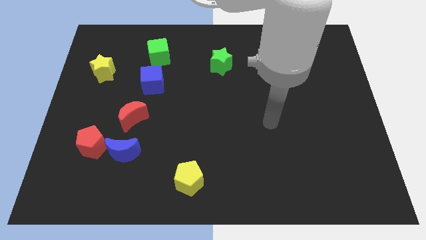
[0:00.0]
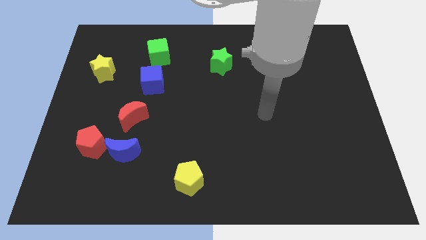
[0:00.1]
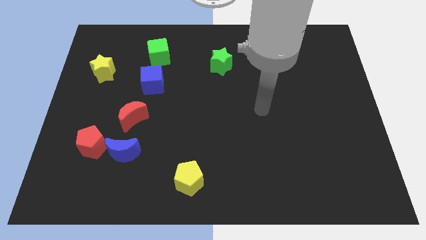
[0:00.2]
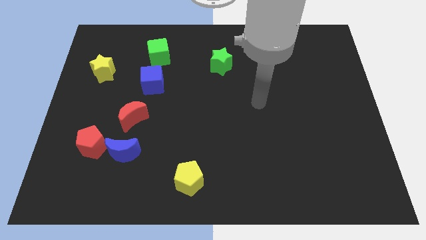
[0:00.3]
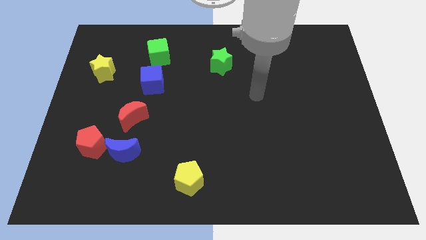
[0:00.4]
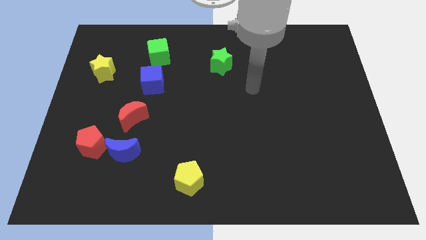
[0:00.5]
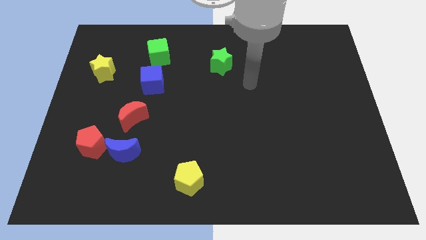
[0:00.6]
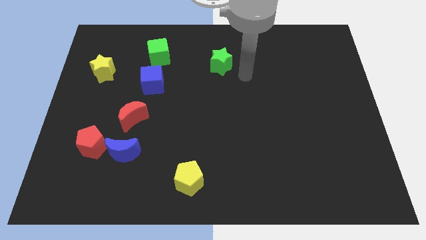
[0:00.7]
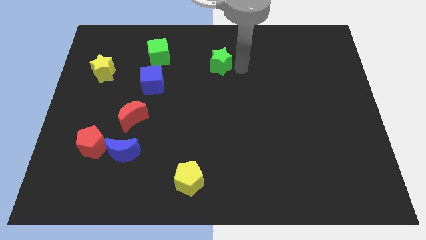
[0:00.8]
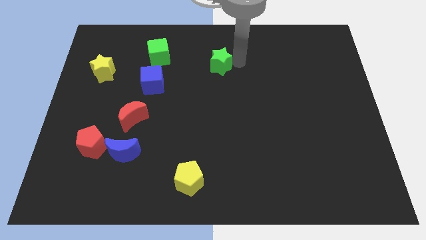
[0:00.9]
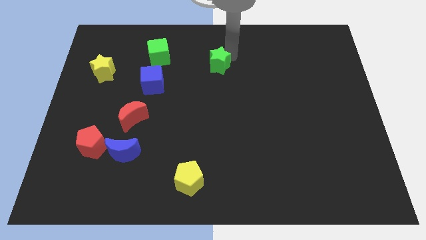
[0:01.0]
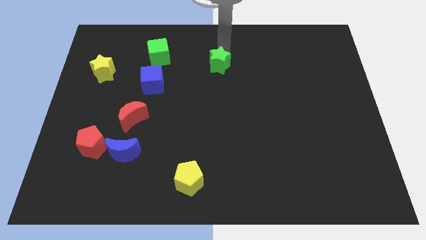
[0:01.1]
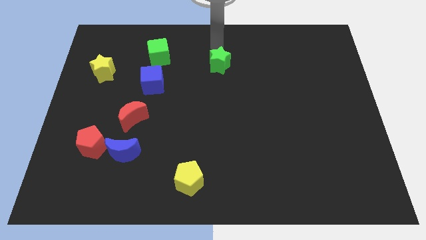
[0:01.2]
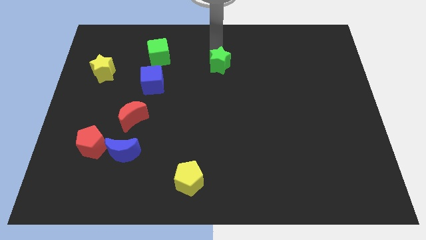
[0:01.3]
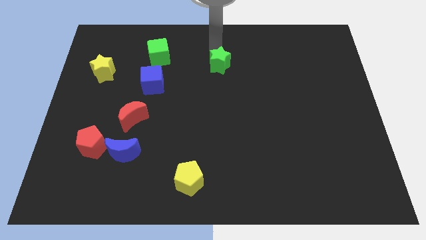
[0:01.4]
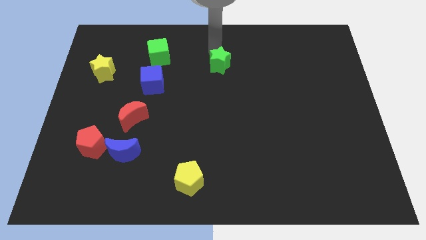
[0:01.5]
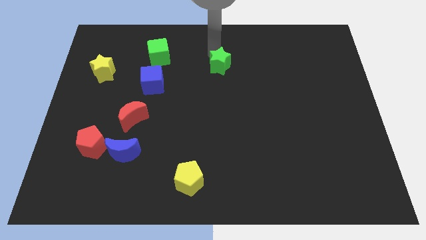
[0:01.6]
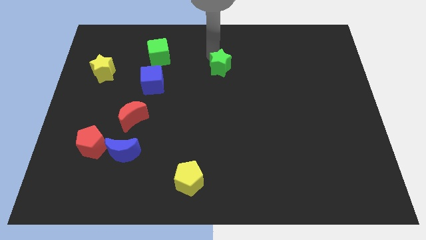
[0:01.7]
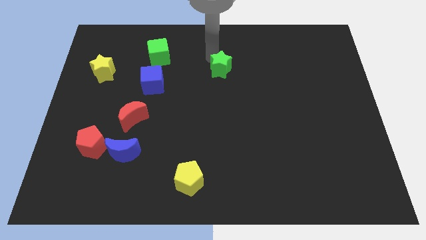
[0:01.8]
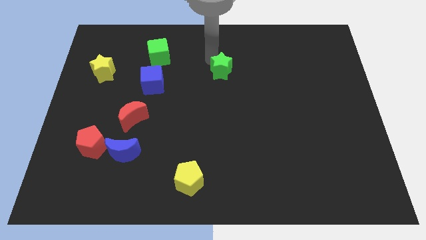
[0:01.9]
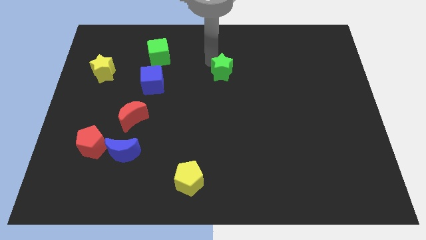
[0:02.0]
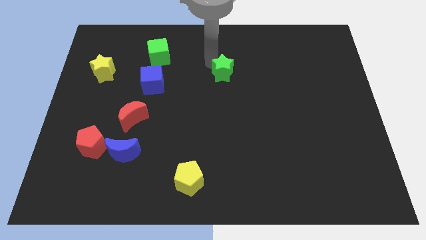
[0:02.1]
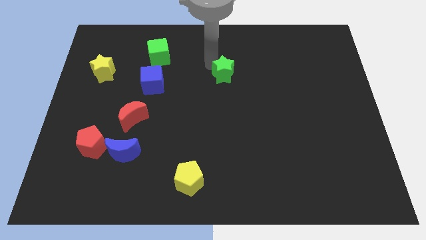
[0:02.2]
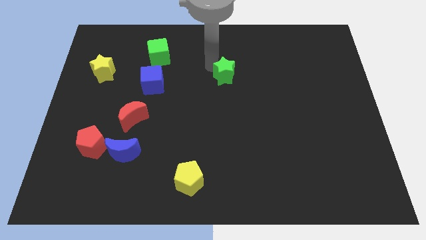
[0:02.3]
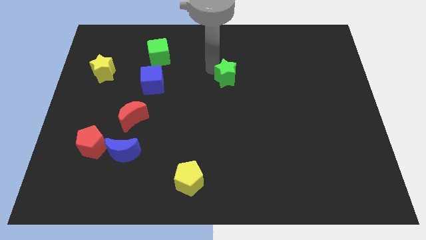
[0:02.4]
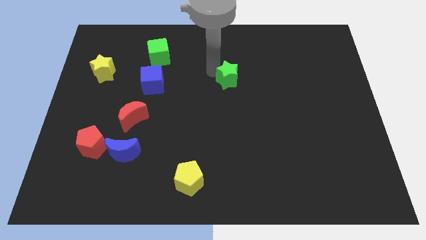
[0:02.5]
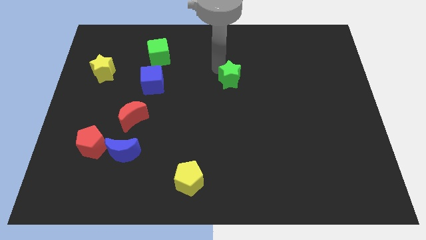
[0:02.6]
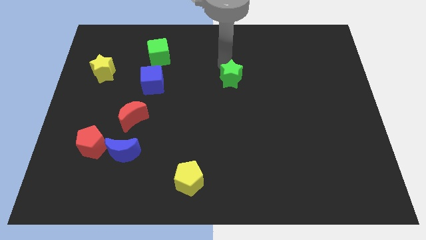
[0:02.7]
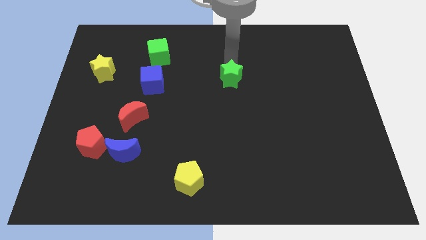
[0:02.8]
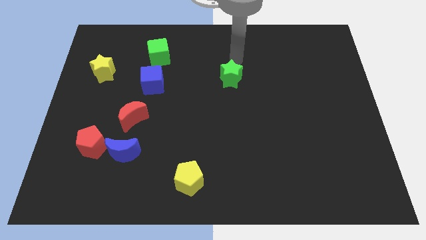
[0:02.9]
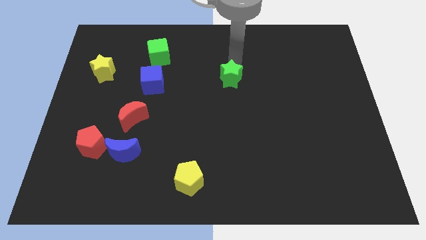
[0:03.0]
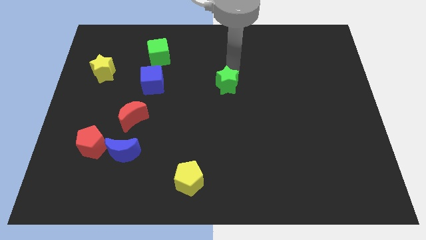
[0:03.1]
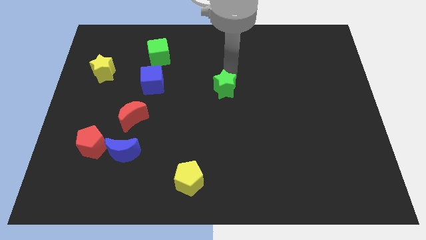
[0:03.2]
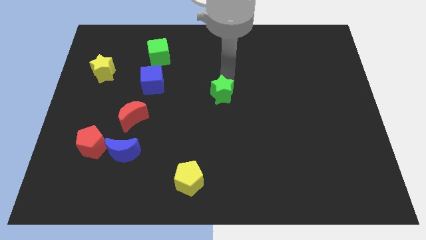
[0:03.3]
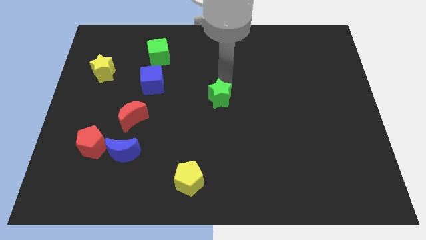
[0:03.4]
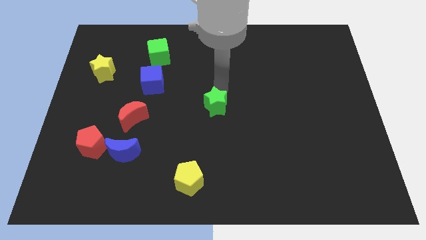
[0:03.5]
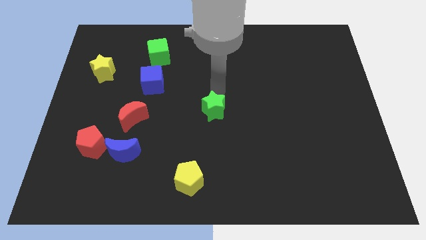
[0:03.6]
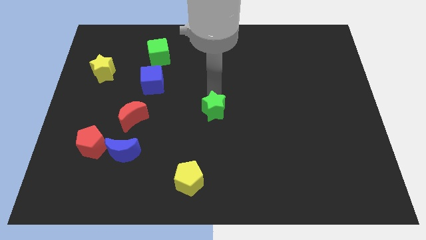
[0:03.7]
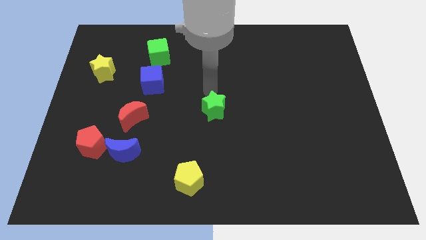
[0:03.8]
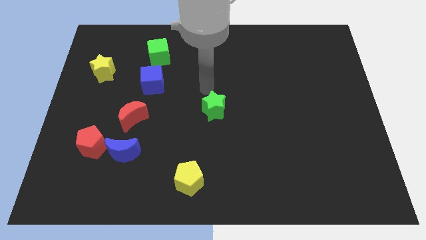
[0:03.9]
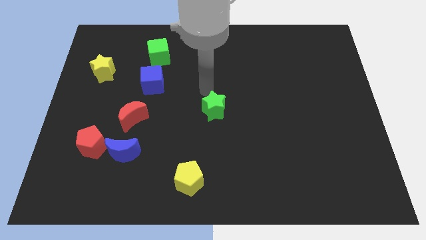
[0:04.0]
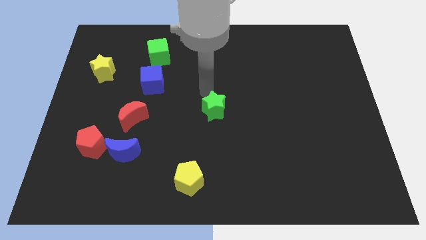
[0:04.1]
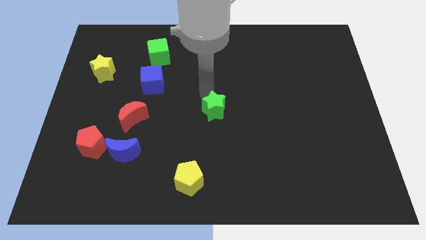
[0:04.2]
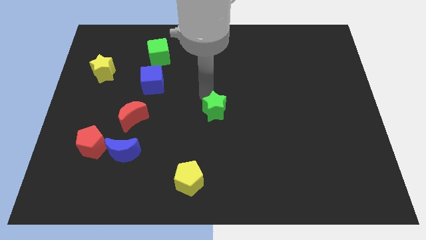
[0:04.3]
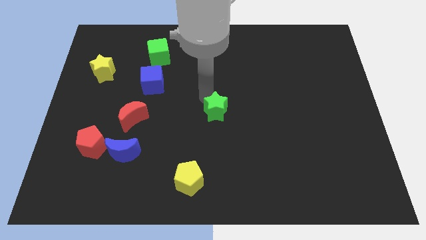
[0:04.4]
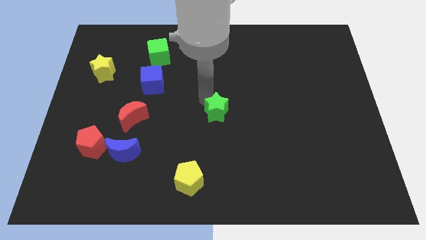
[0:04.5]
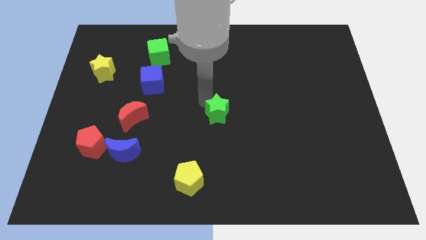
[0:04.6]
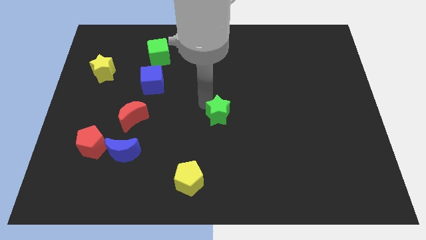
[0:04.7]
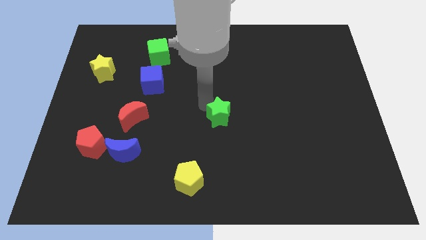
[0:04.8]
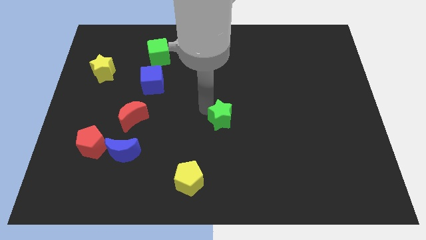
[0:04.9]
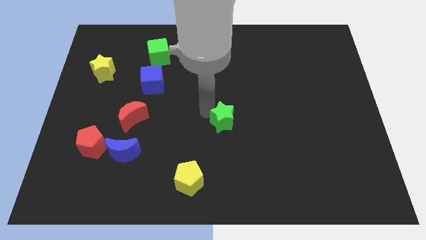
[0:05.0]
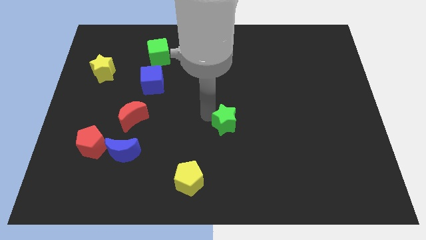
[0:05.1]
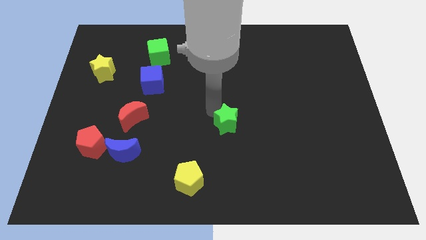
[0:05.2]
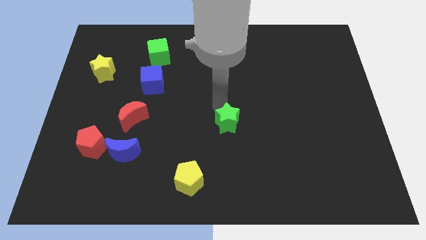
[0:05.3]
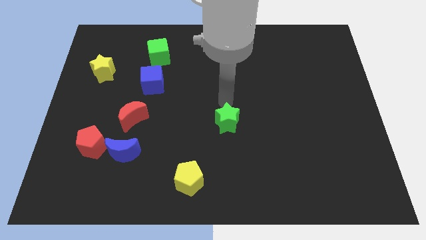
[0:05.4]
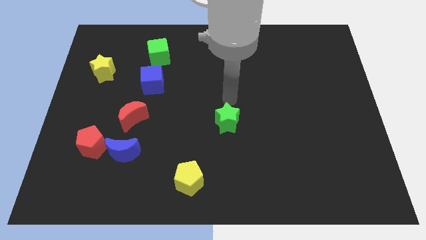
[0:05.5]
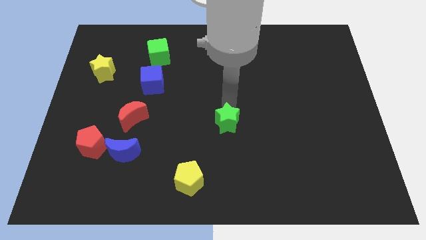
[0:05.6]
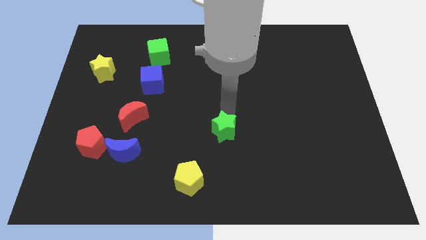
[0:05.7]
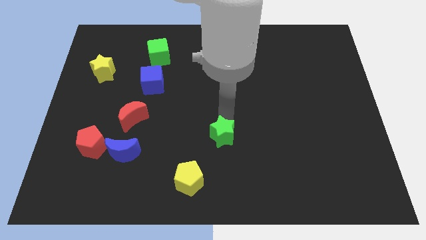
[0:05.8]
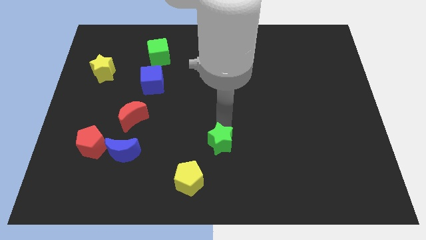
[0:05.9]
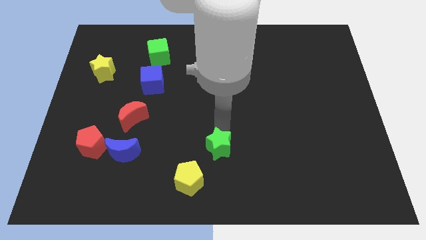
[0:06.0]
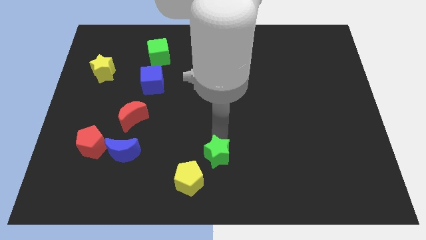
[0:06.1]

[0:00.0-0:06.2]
push the green star to the bottom side
